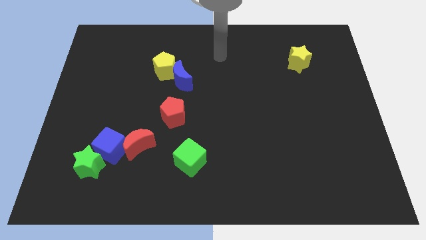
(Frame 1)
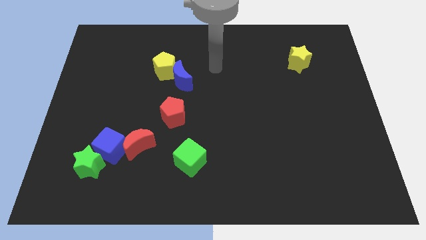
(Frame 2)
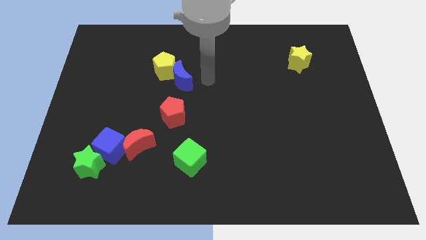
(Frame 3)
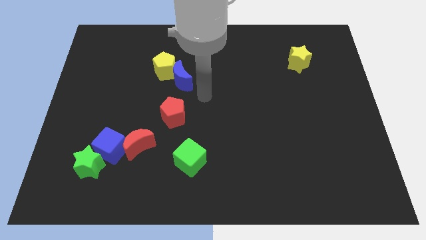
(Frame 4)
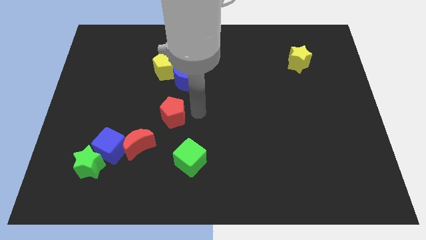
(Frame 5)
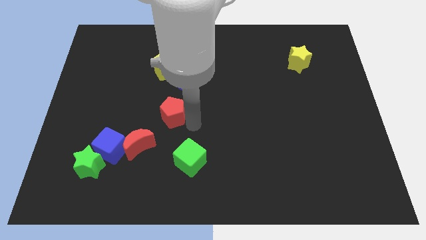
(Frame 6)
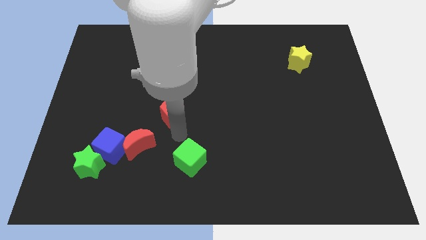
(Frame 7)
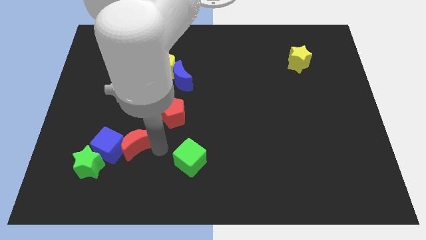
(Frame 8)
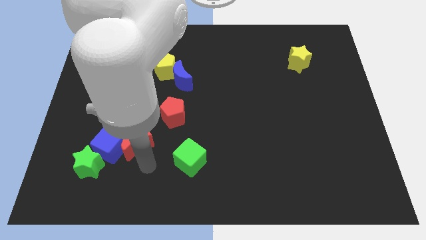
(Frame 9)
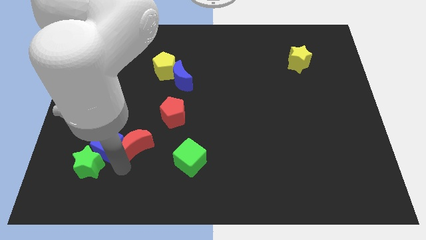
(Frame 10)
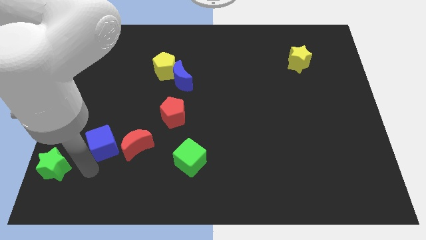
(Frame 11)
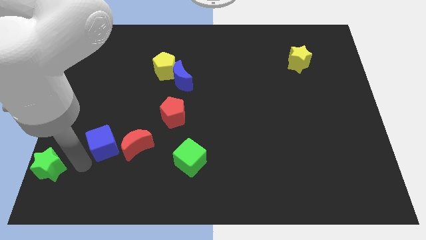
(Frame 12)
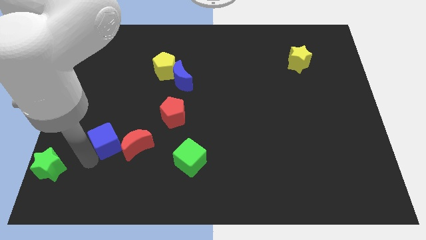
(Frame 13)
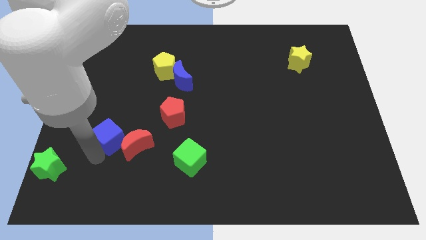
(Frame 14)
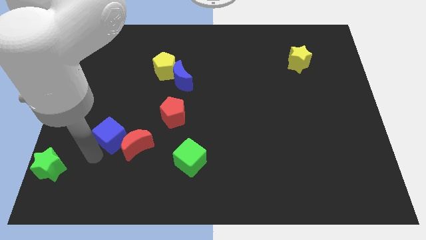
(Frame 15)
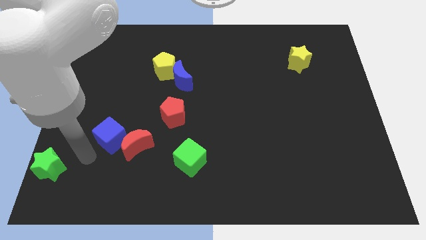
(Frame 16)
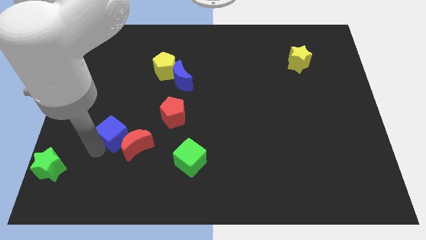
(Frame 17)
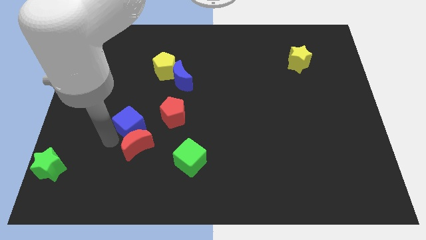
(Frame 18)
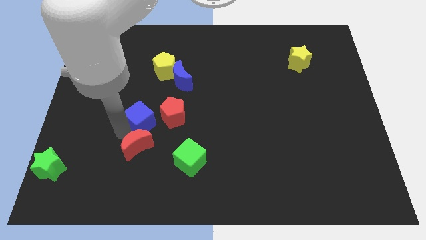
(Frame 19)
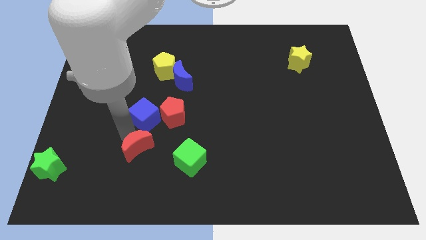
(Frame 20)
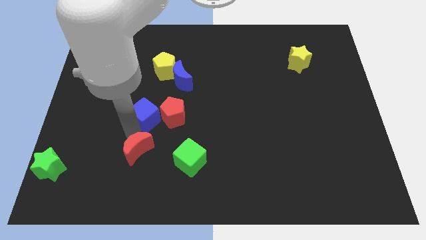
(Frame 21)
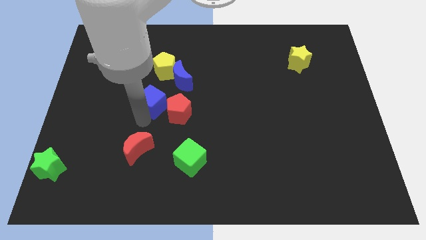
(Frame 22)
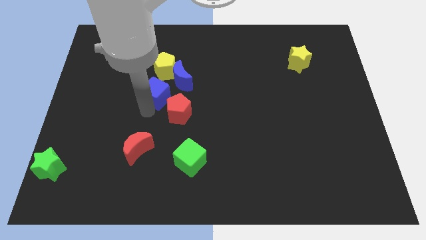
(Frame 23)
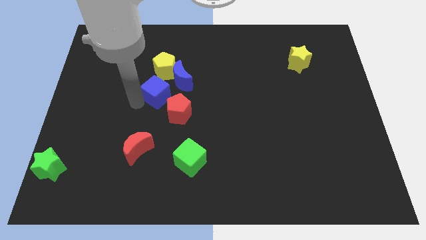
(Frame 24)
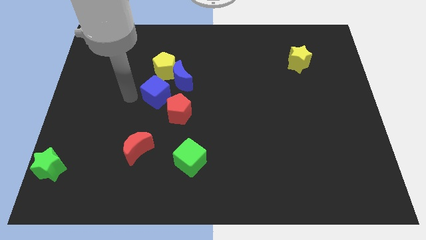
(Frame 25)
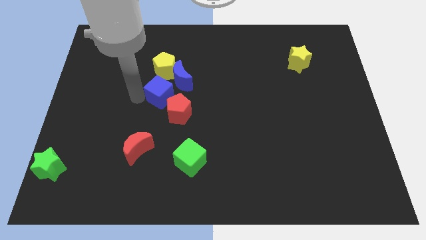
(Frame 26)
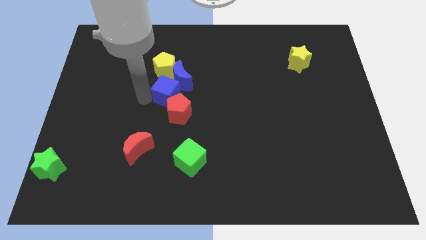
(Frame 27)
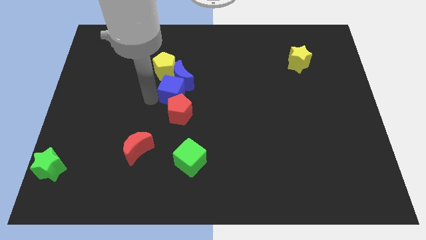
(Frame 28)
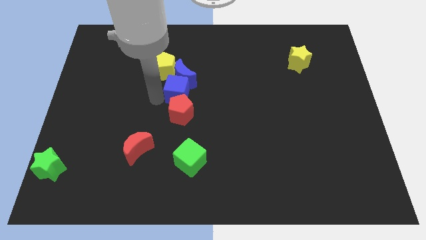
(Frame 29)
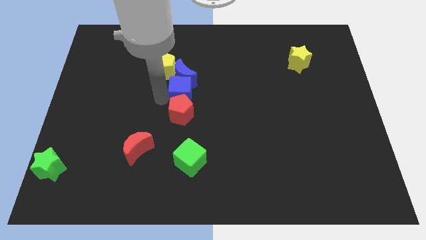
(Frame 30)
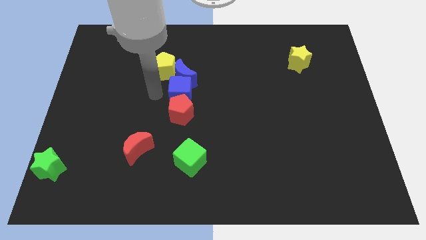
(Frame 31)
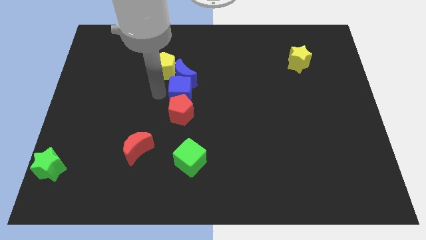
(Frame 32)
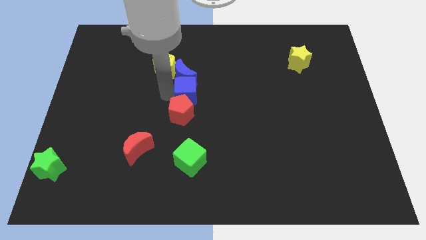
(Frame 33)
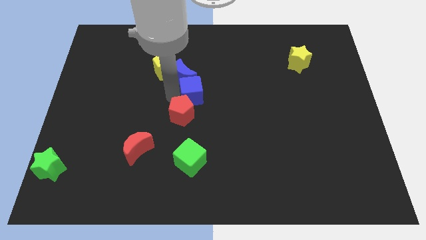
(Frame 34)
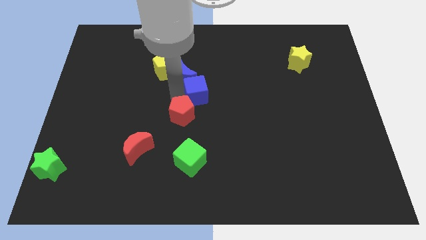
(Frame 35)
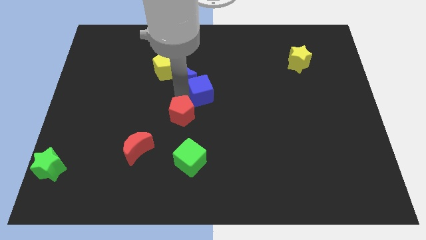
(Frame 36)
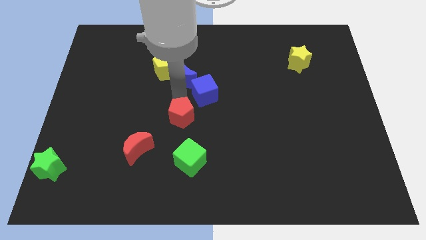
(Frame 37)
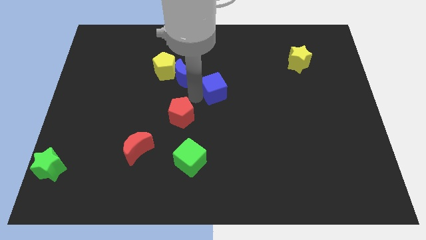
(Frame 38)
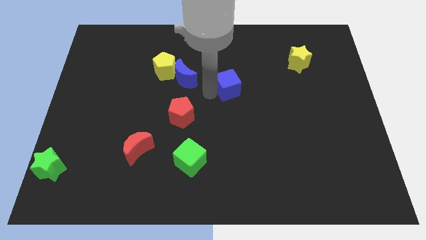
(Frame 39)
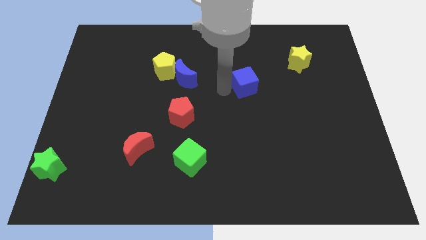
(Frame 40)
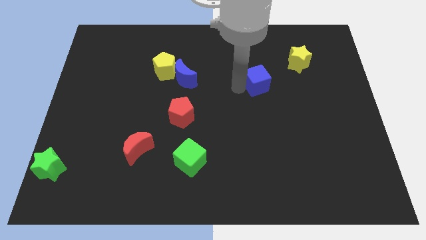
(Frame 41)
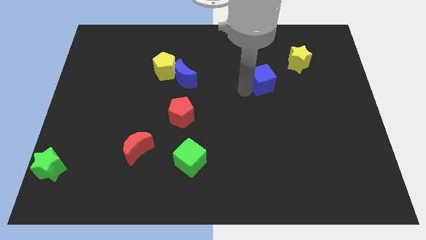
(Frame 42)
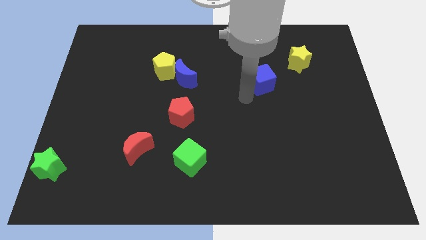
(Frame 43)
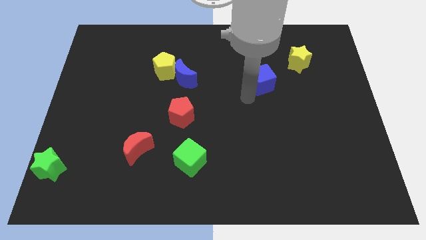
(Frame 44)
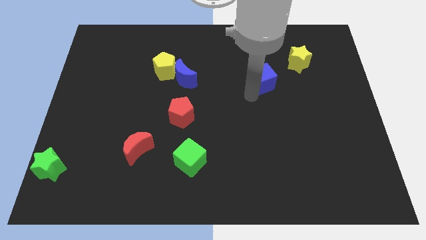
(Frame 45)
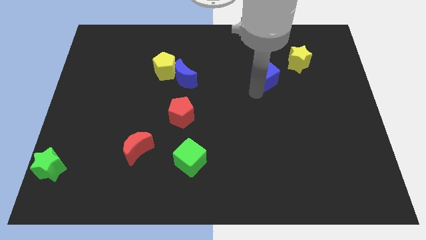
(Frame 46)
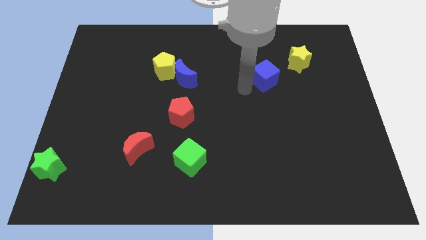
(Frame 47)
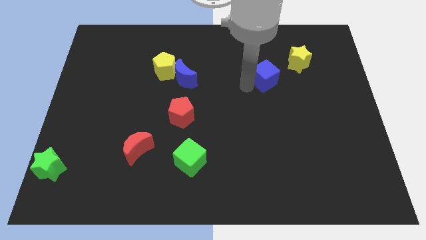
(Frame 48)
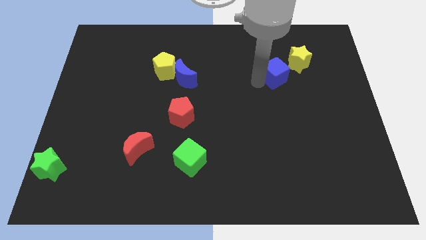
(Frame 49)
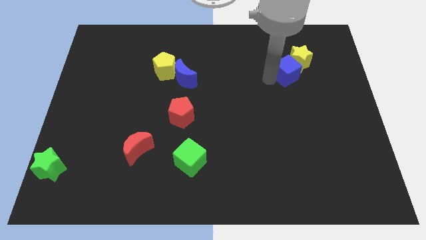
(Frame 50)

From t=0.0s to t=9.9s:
slide the blue cube close to the yellow star

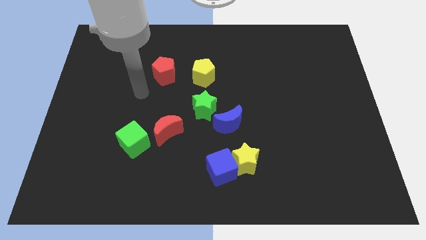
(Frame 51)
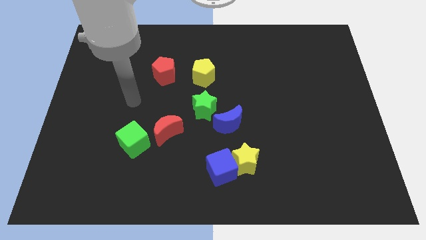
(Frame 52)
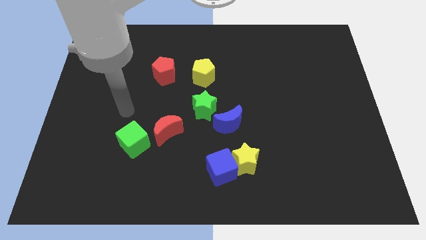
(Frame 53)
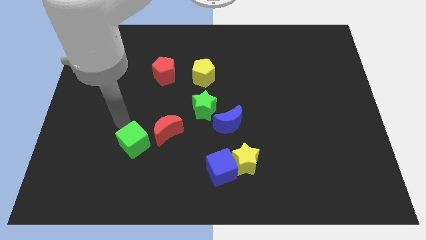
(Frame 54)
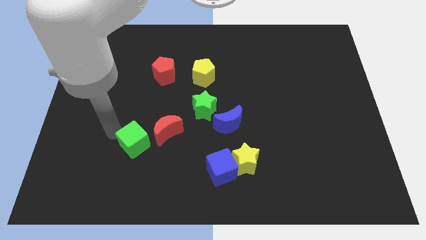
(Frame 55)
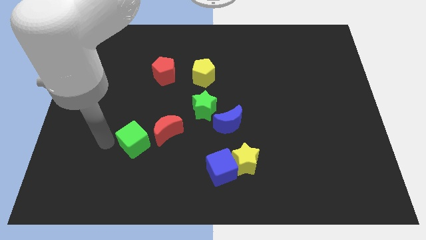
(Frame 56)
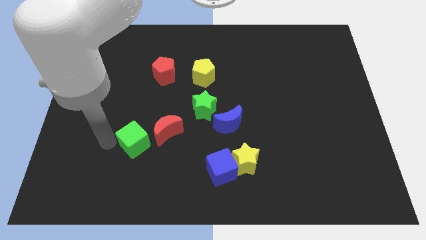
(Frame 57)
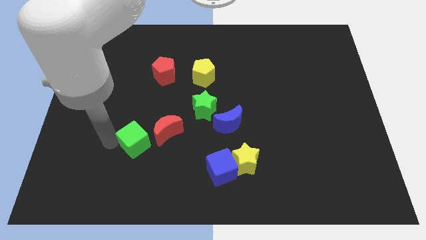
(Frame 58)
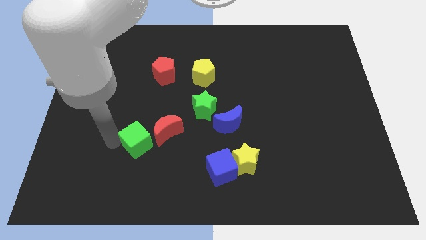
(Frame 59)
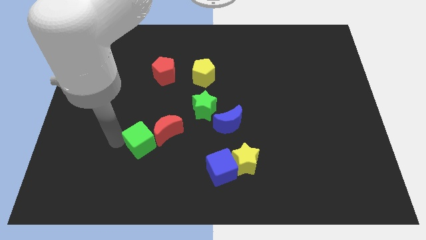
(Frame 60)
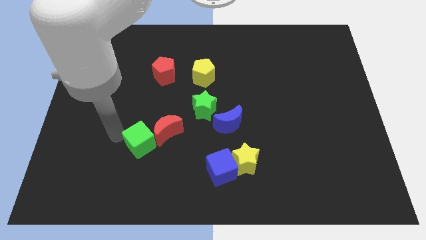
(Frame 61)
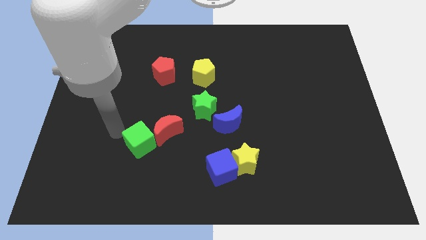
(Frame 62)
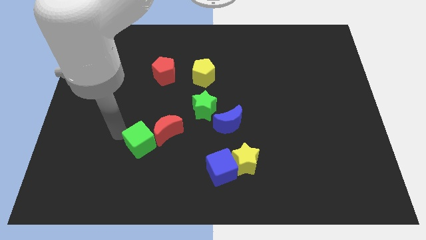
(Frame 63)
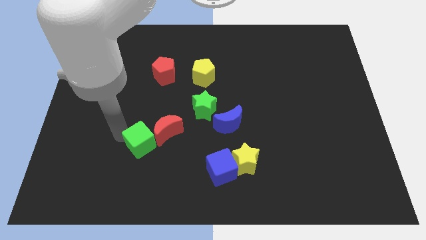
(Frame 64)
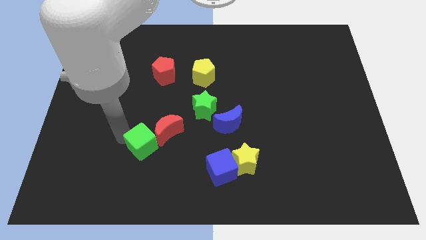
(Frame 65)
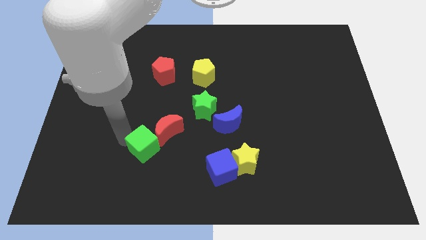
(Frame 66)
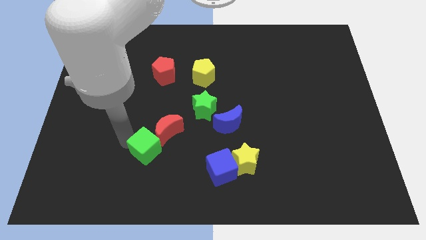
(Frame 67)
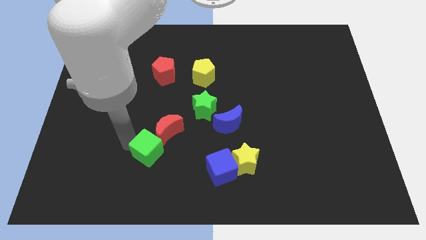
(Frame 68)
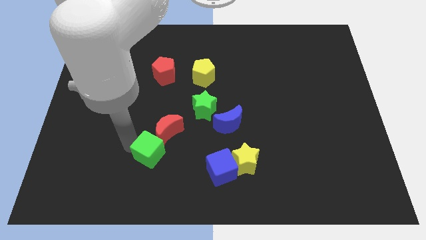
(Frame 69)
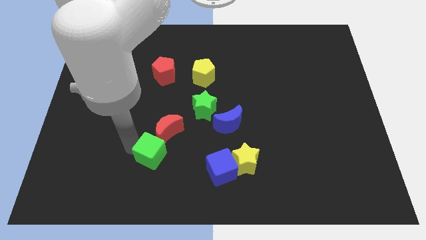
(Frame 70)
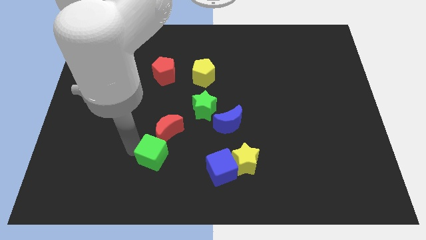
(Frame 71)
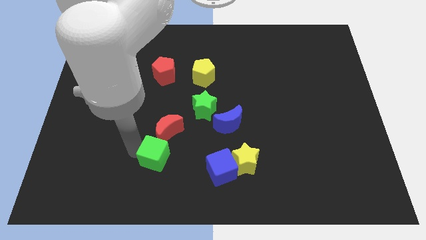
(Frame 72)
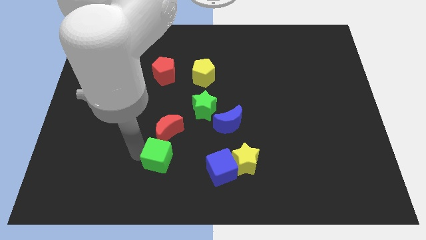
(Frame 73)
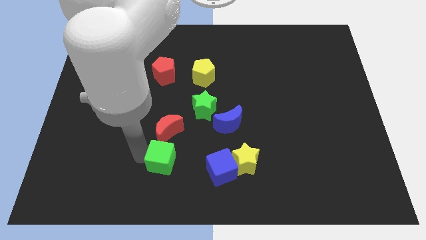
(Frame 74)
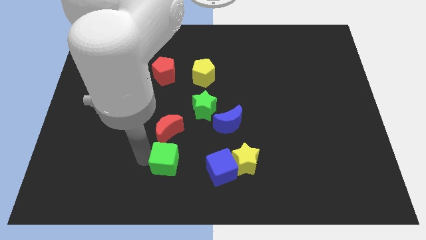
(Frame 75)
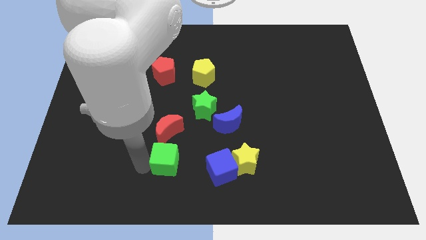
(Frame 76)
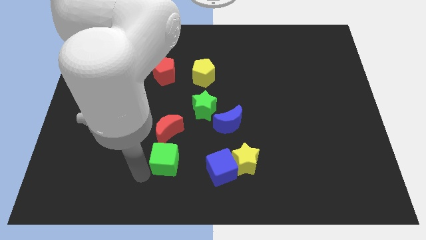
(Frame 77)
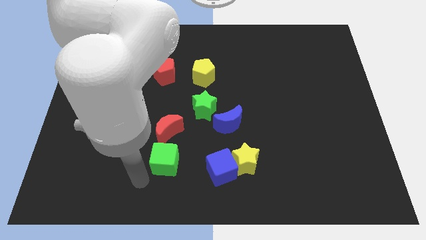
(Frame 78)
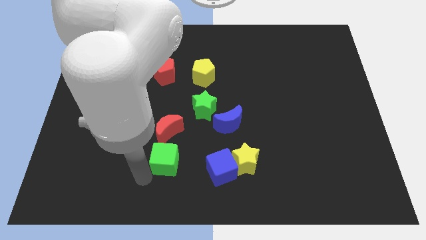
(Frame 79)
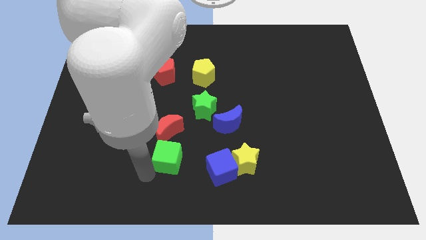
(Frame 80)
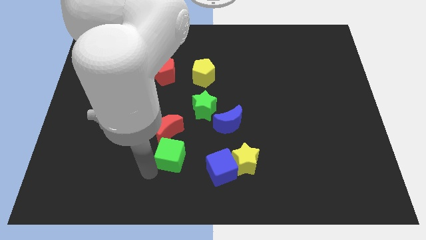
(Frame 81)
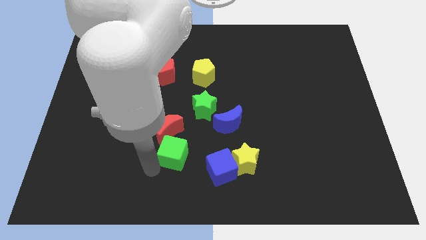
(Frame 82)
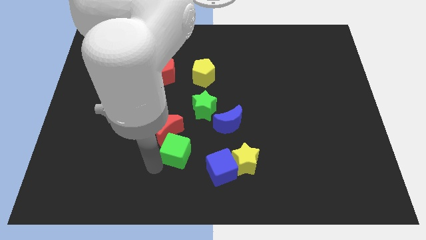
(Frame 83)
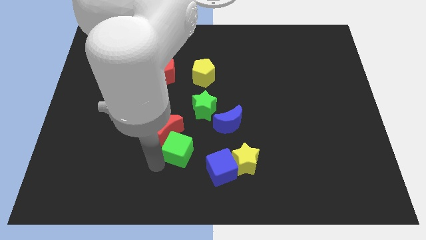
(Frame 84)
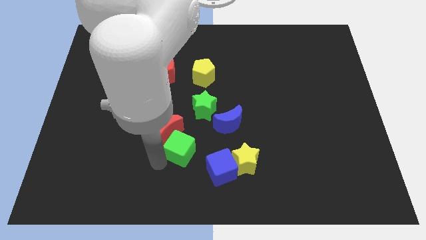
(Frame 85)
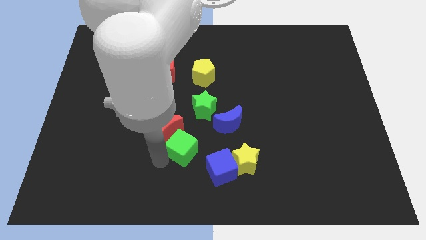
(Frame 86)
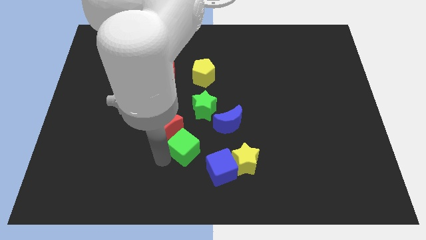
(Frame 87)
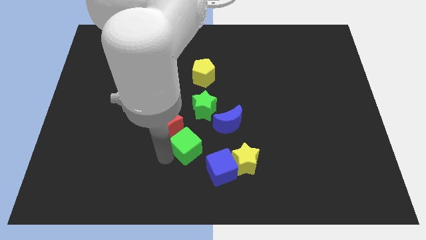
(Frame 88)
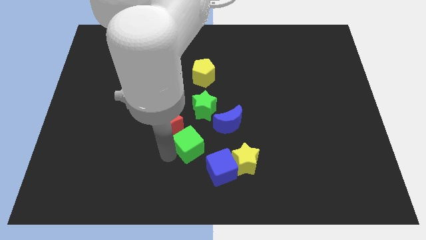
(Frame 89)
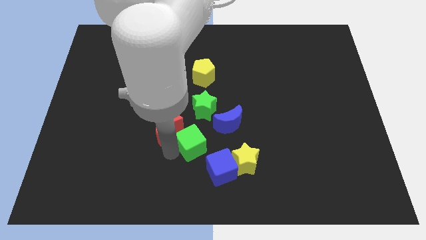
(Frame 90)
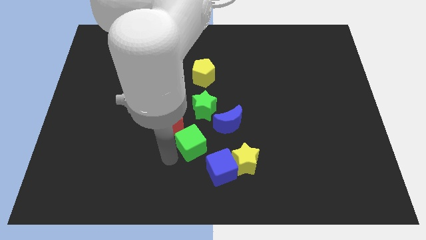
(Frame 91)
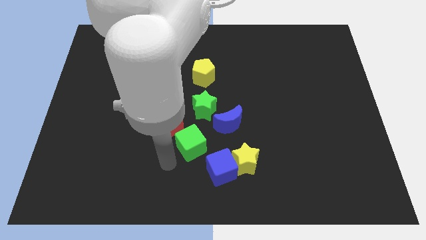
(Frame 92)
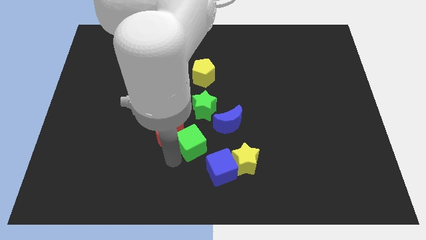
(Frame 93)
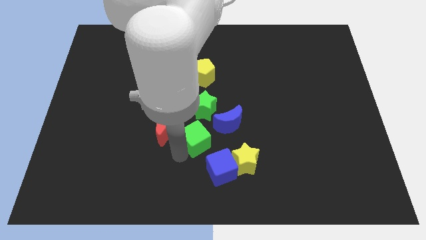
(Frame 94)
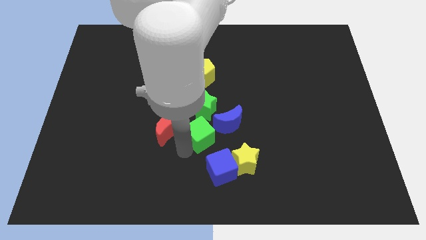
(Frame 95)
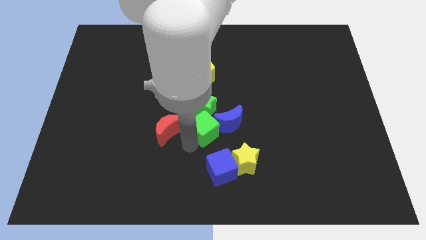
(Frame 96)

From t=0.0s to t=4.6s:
move the green cube next to the blue moon
